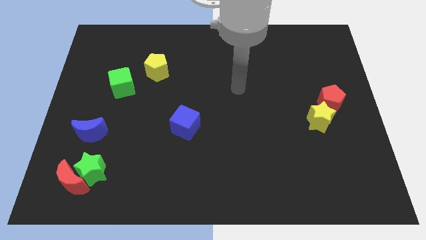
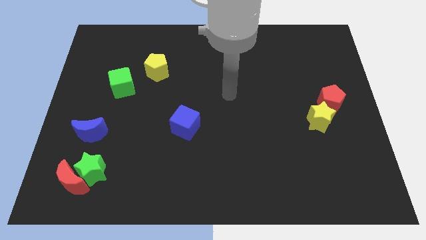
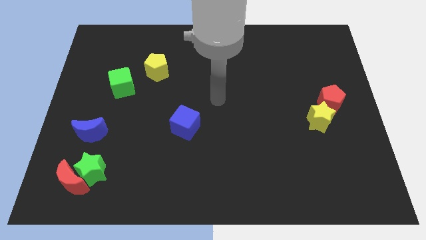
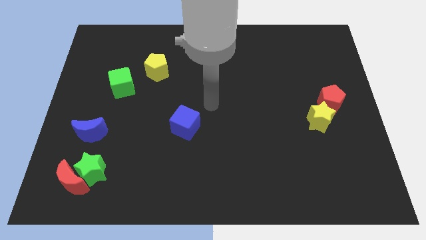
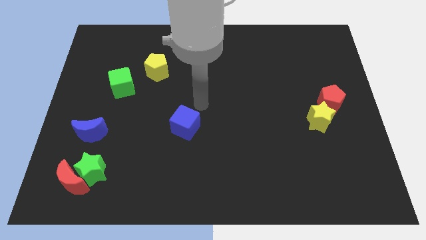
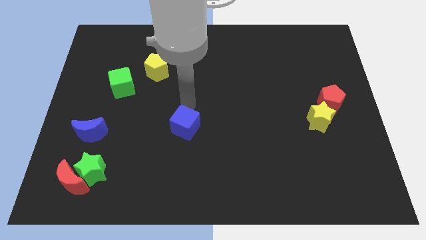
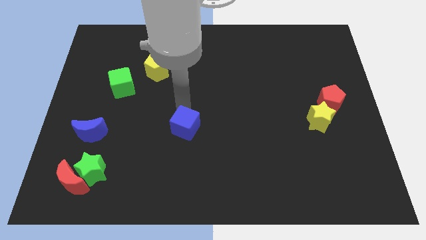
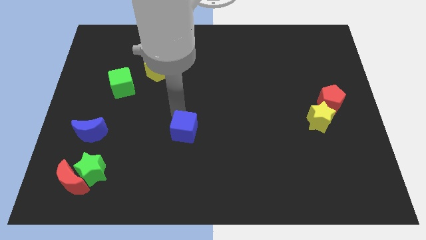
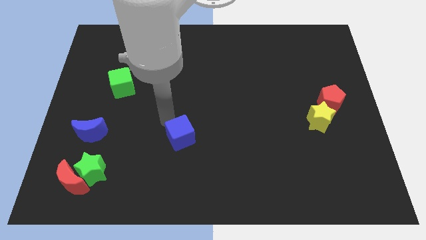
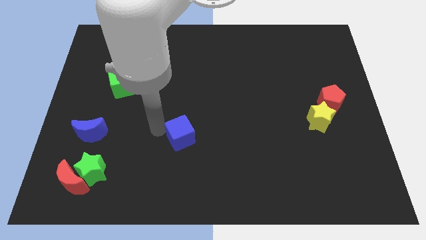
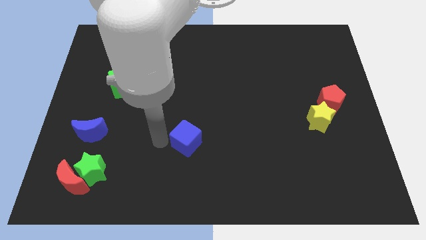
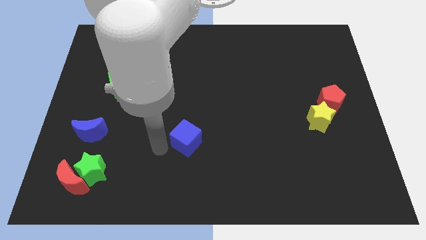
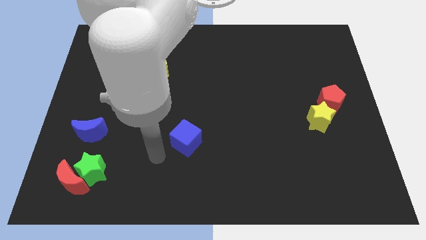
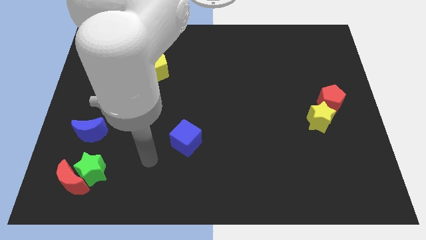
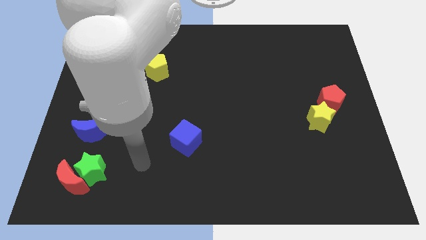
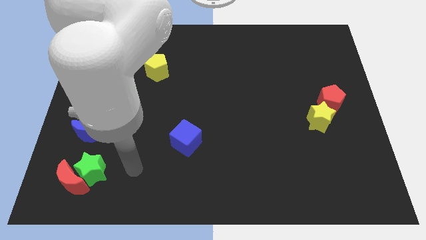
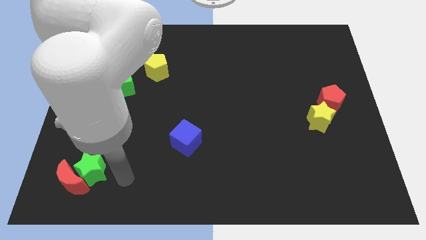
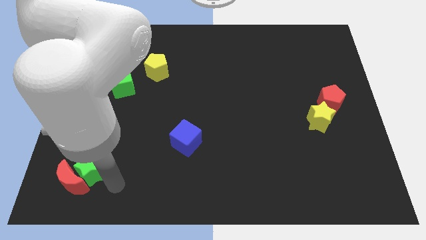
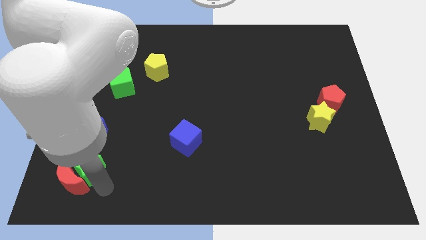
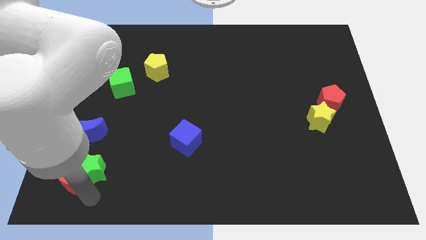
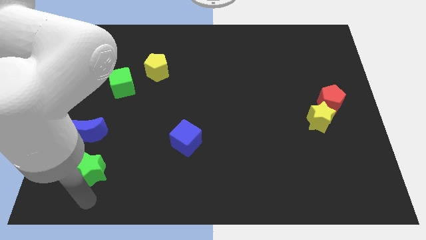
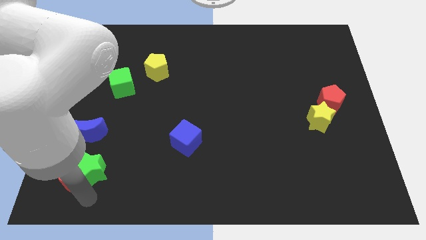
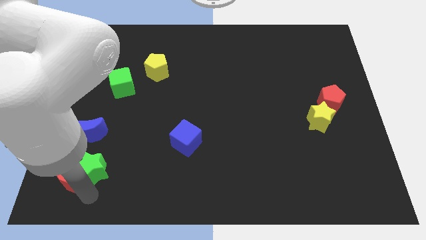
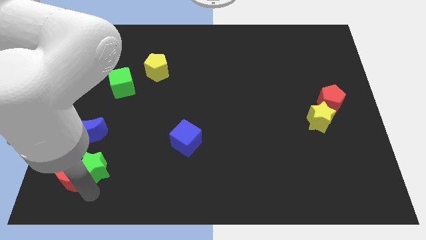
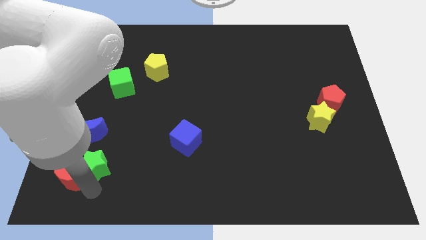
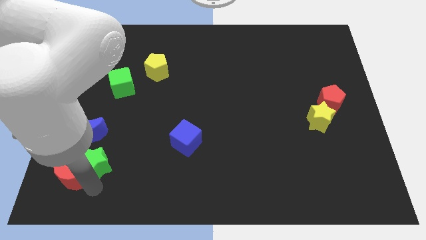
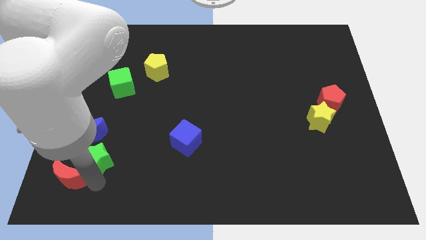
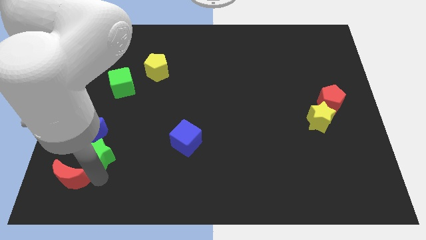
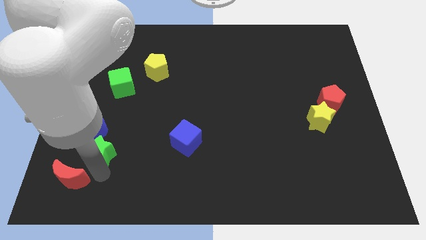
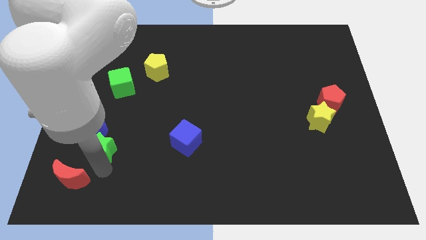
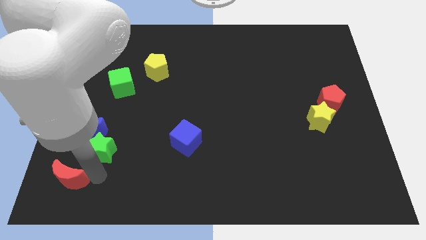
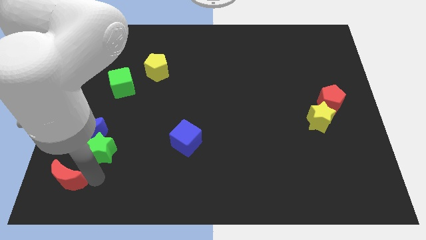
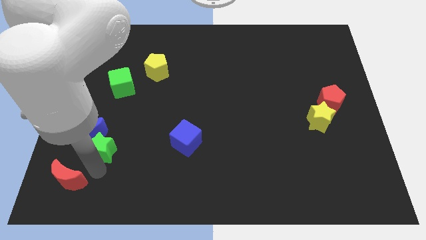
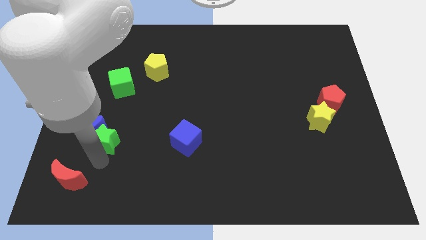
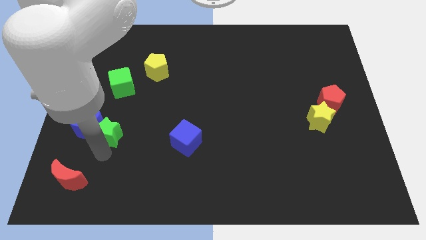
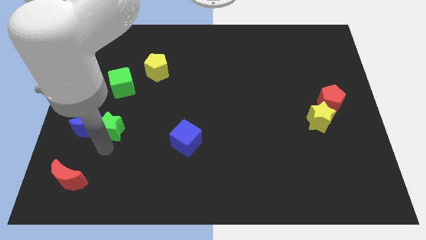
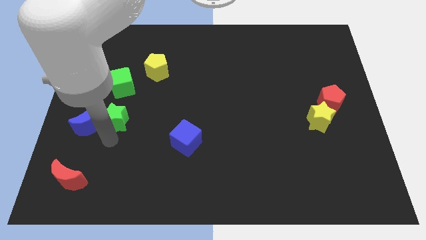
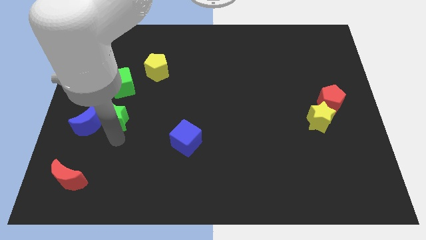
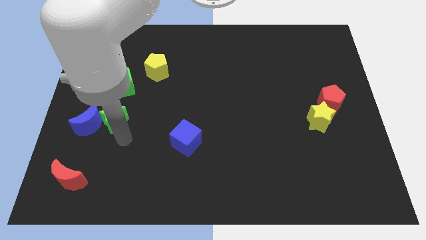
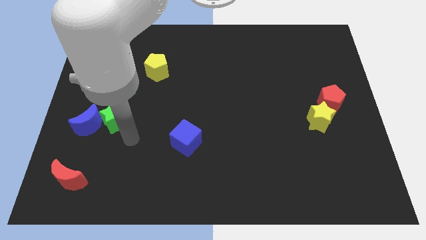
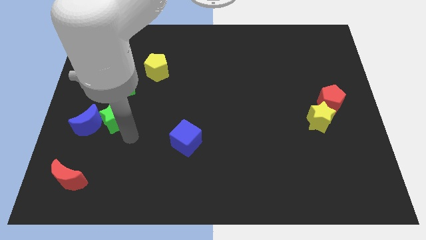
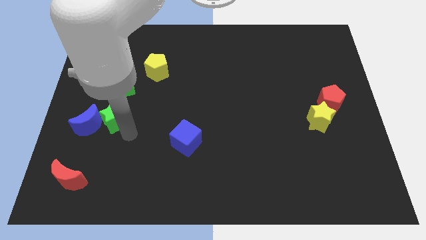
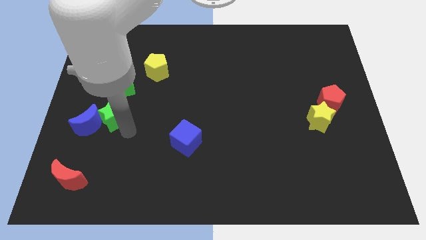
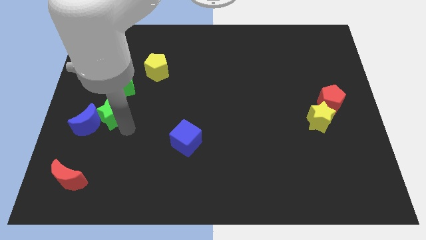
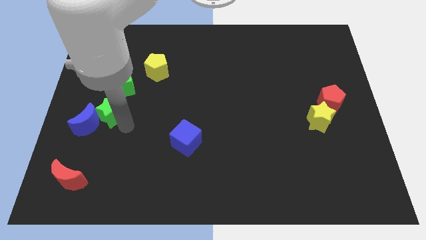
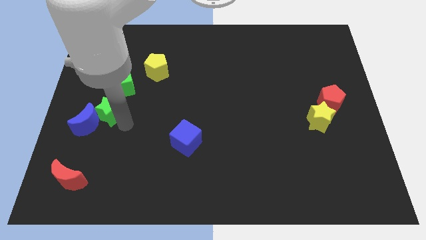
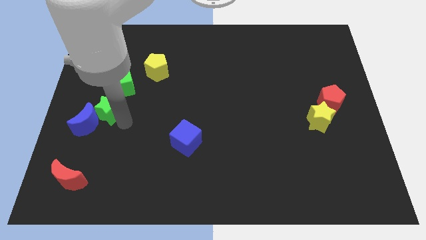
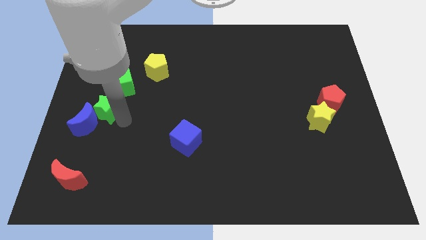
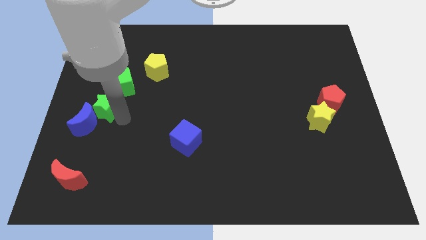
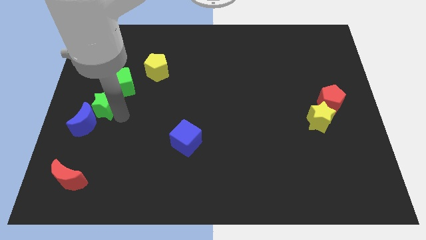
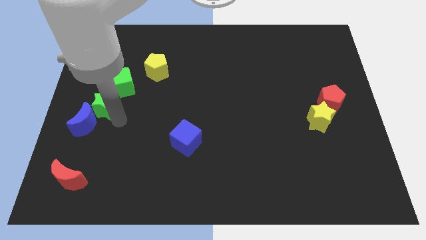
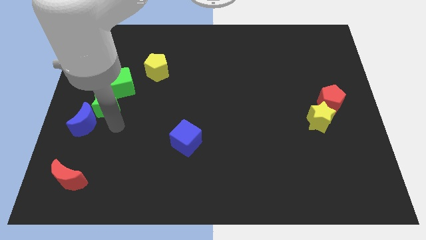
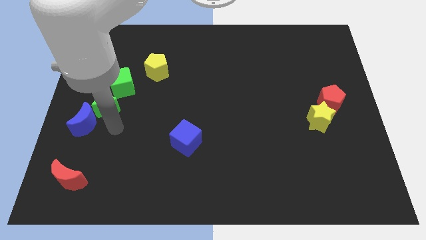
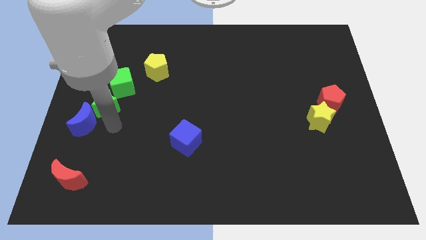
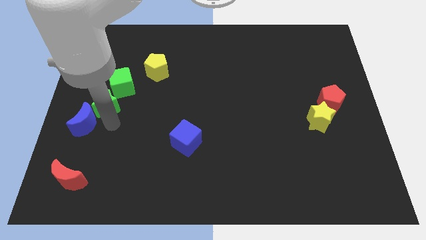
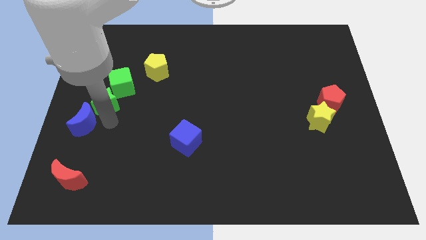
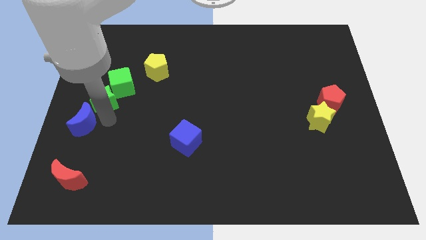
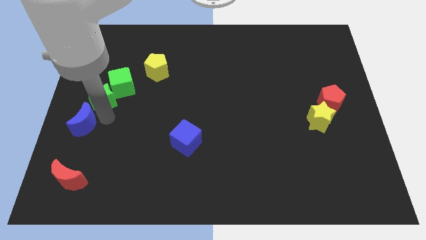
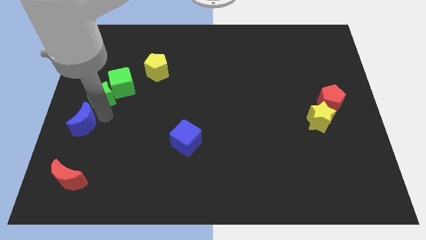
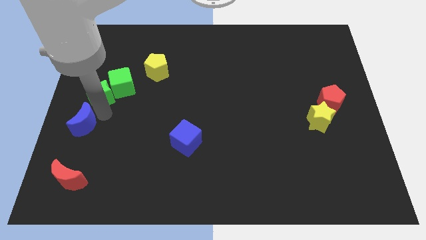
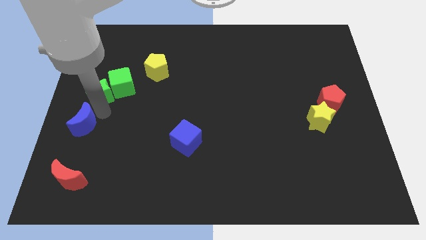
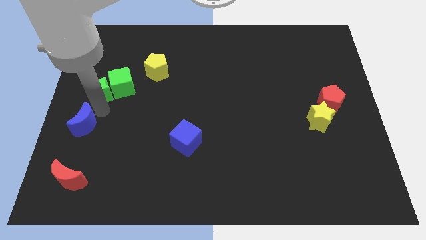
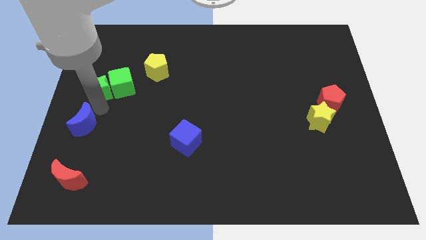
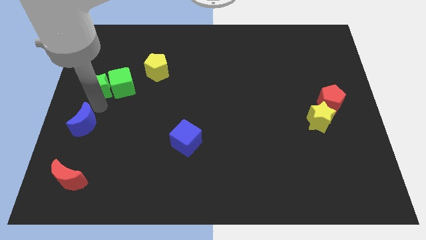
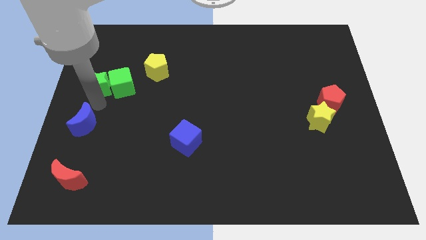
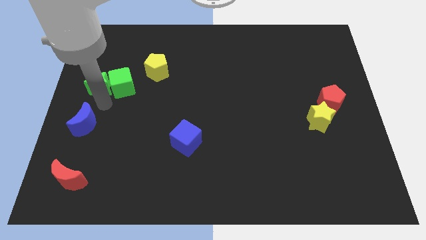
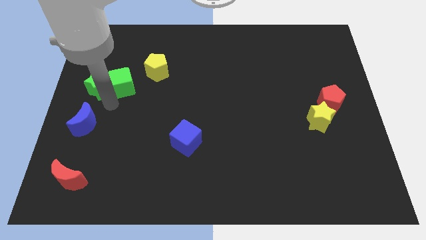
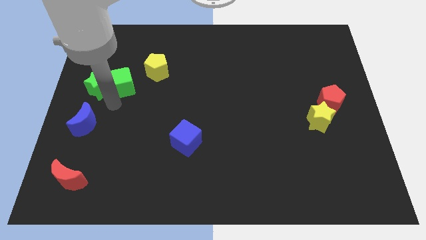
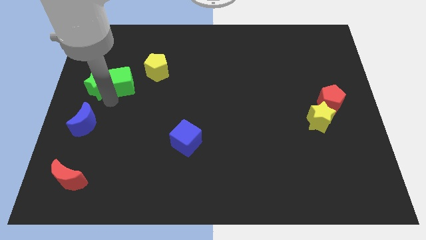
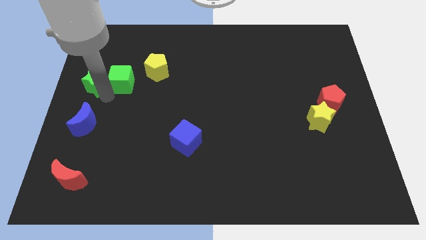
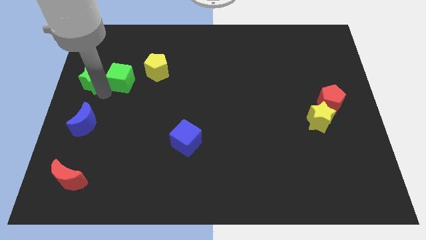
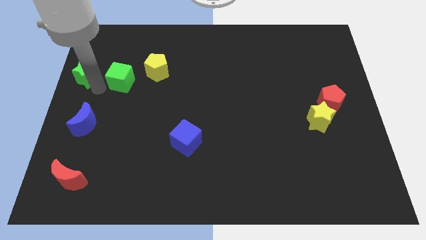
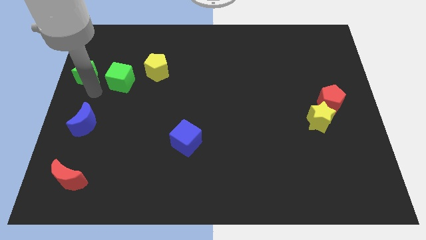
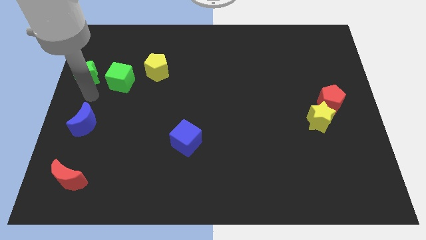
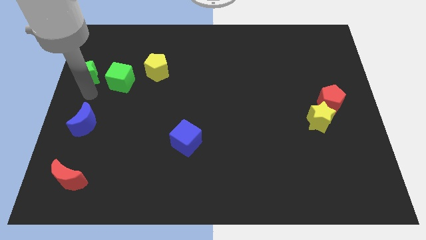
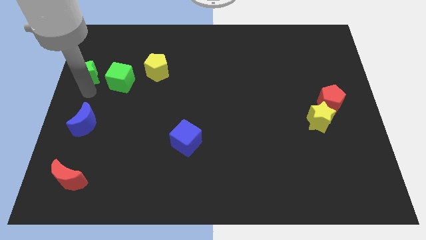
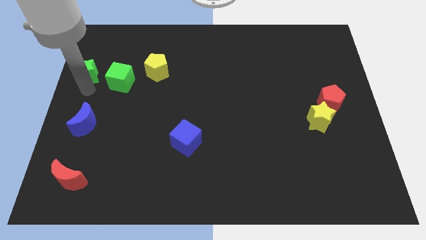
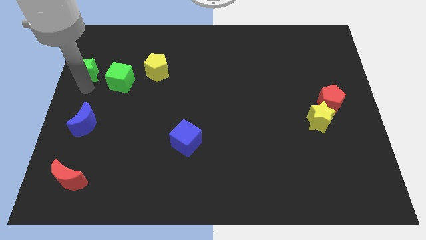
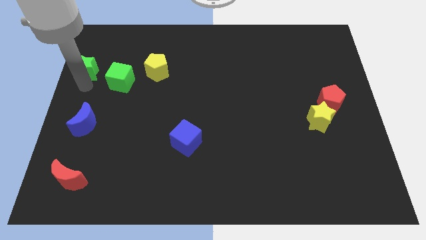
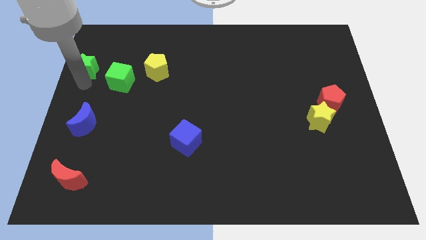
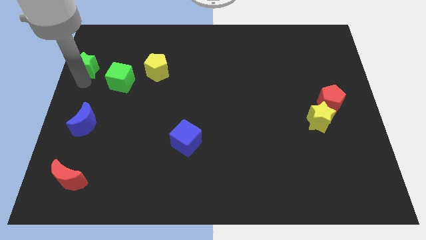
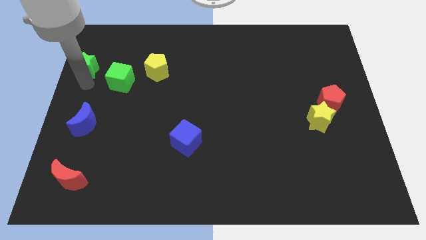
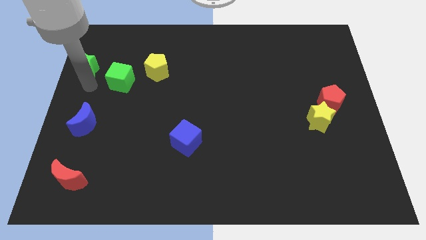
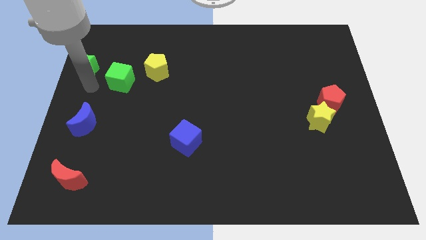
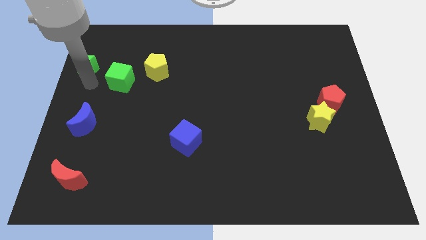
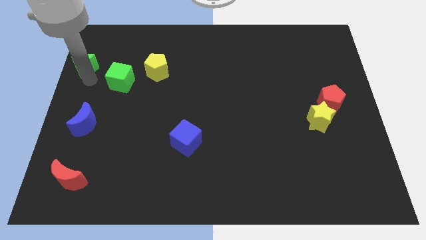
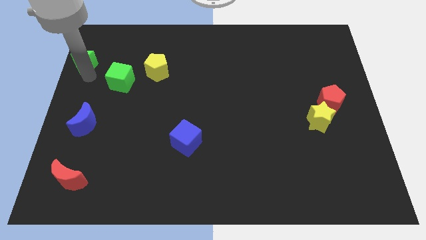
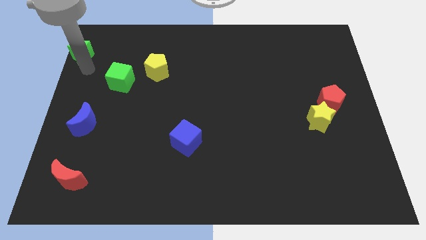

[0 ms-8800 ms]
put the green star to the upper left corner
